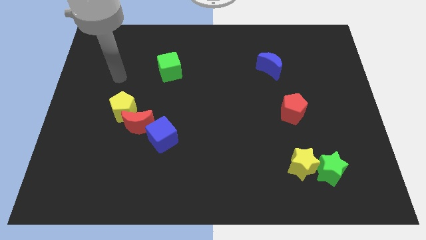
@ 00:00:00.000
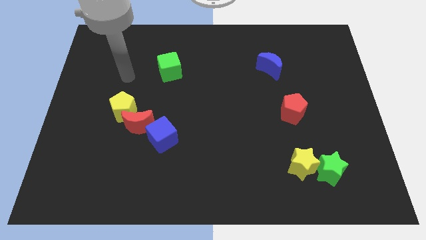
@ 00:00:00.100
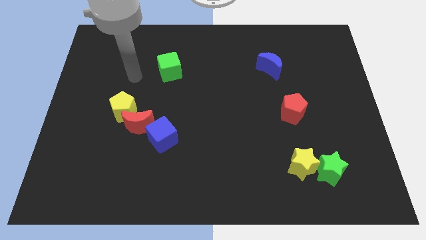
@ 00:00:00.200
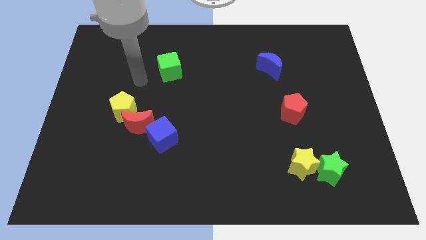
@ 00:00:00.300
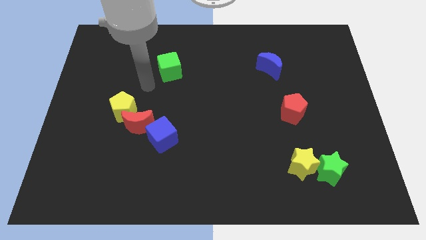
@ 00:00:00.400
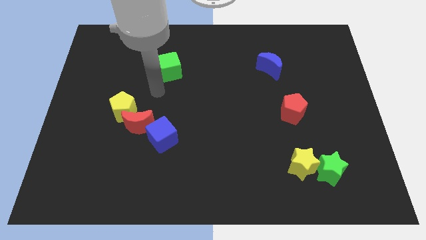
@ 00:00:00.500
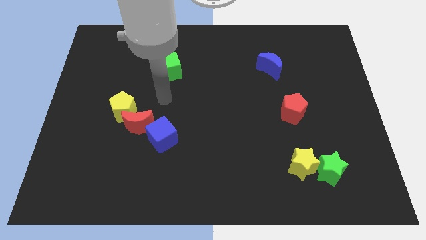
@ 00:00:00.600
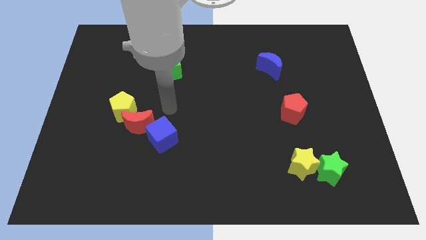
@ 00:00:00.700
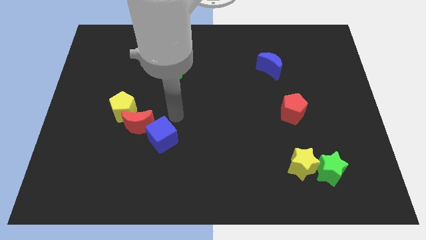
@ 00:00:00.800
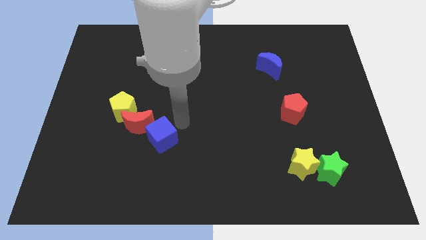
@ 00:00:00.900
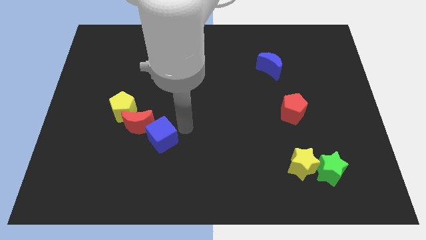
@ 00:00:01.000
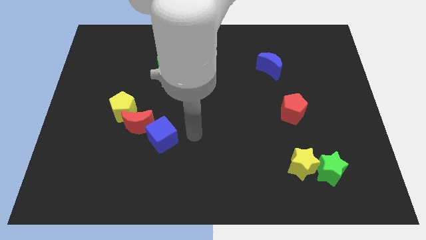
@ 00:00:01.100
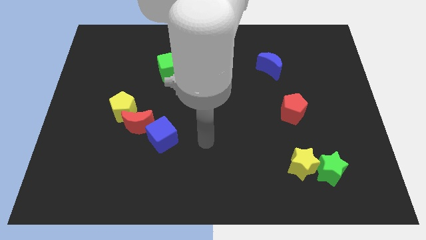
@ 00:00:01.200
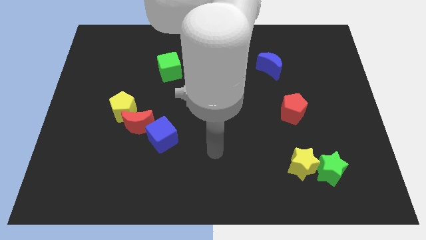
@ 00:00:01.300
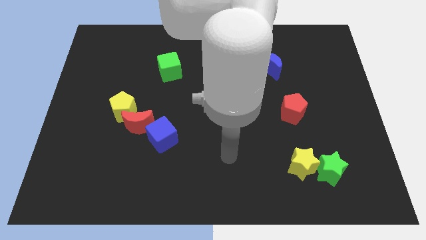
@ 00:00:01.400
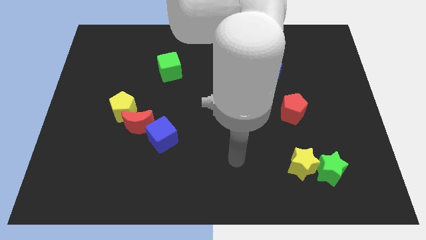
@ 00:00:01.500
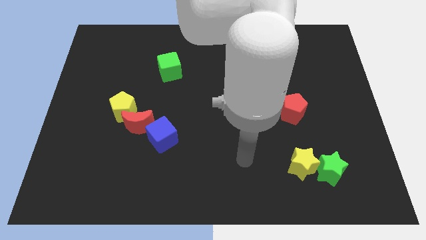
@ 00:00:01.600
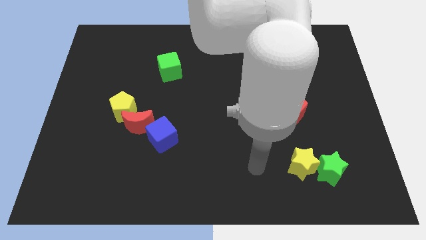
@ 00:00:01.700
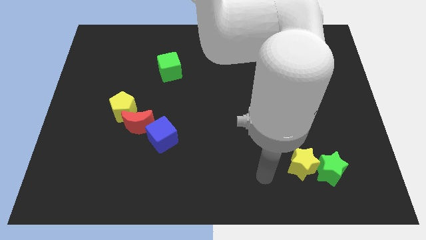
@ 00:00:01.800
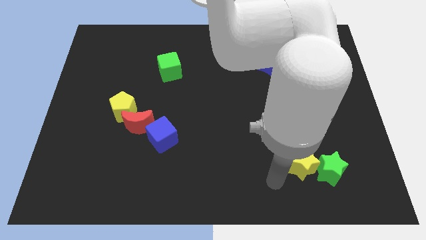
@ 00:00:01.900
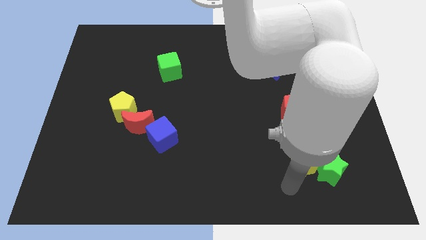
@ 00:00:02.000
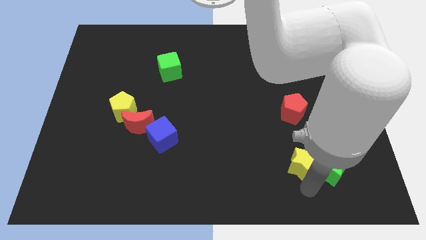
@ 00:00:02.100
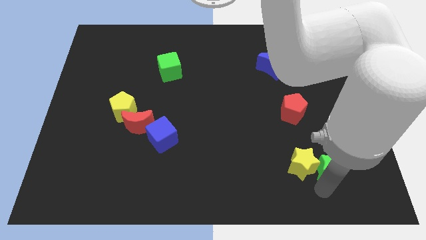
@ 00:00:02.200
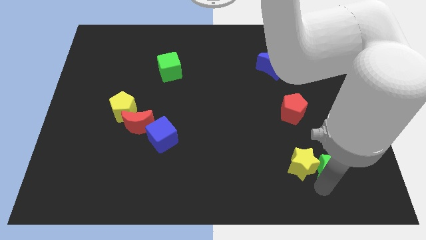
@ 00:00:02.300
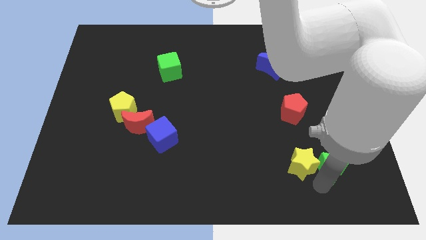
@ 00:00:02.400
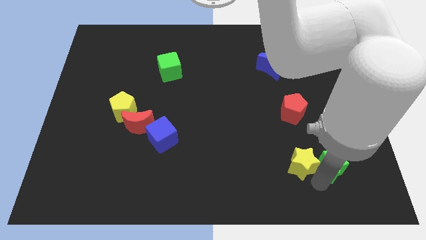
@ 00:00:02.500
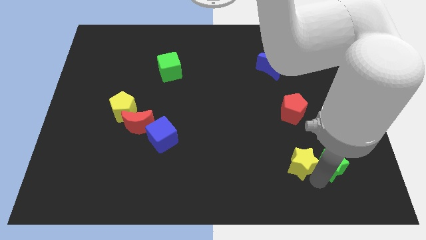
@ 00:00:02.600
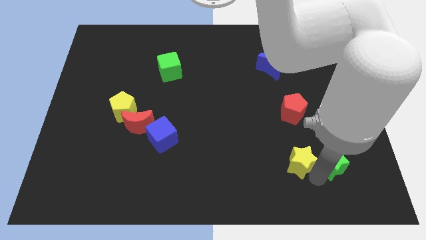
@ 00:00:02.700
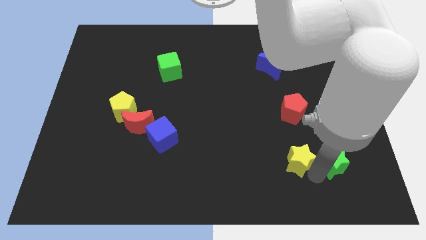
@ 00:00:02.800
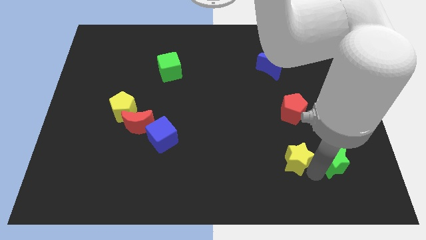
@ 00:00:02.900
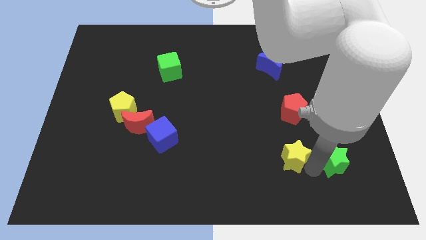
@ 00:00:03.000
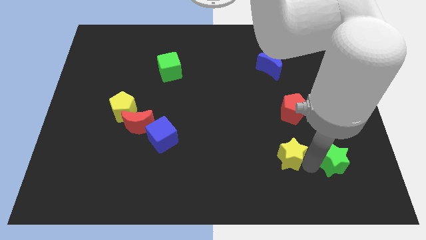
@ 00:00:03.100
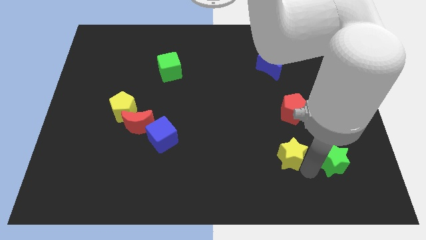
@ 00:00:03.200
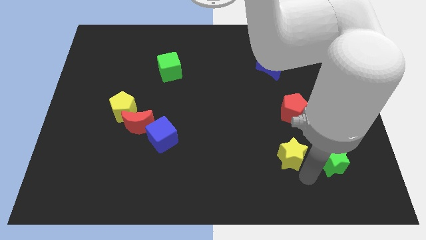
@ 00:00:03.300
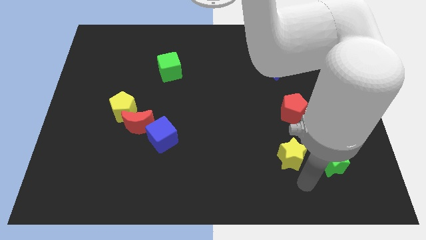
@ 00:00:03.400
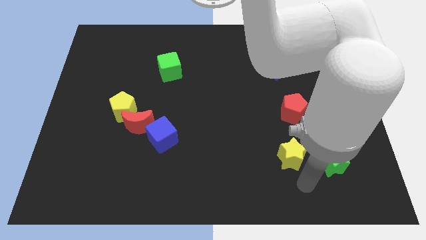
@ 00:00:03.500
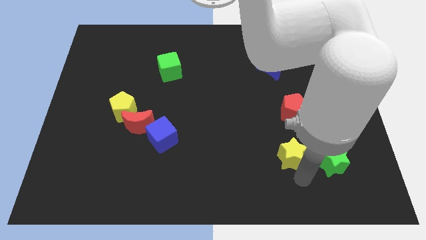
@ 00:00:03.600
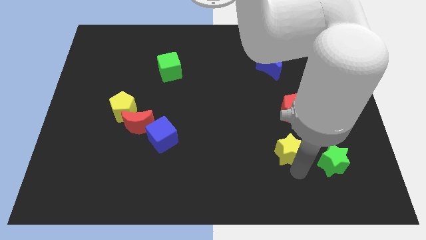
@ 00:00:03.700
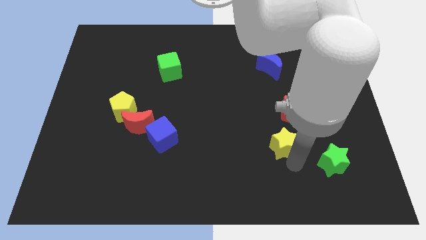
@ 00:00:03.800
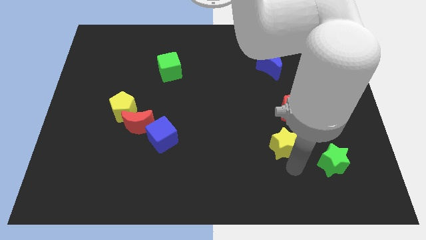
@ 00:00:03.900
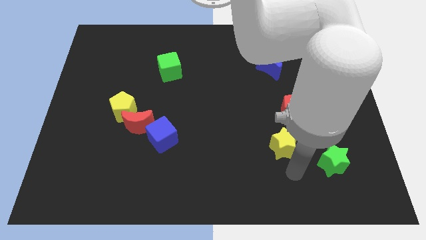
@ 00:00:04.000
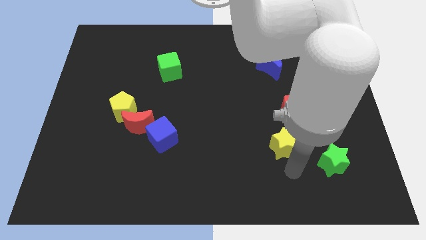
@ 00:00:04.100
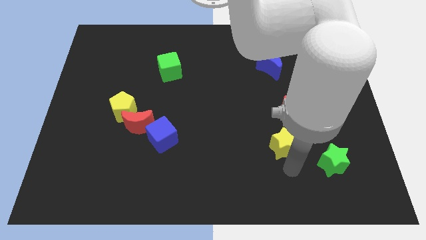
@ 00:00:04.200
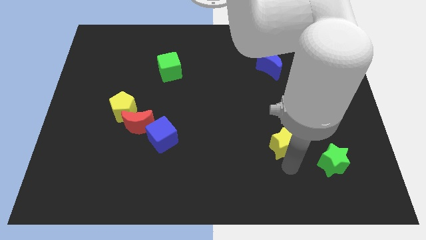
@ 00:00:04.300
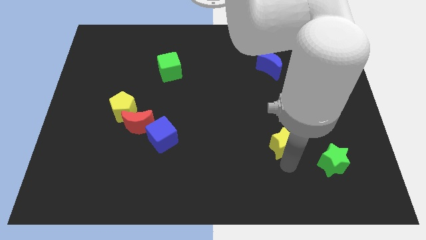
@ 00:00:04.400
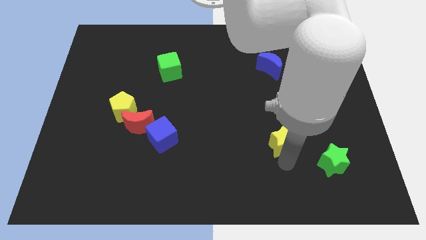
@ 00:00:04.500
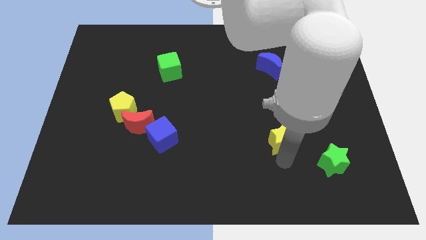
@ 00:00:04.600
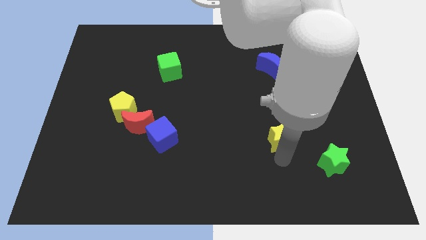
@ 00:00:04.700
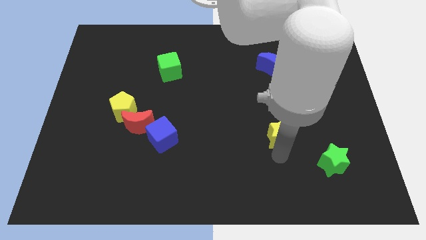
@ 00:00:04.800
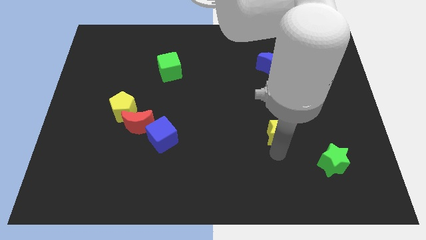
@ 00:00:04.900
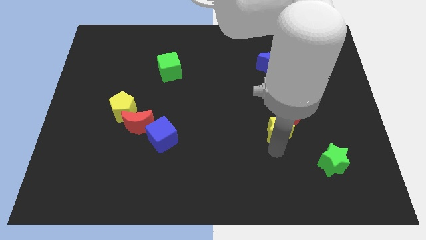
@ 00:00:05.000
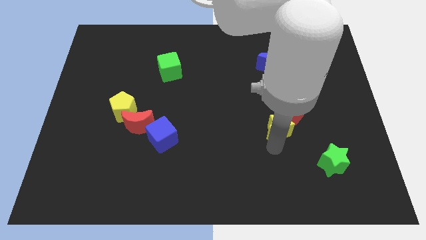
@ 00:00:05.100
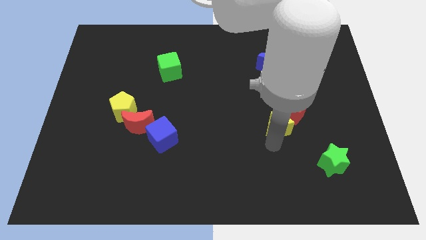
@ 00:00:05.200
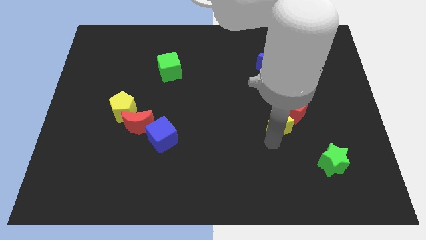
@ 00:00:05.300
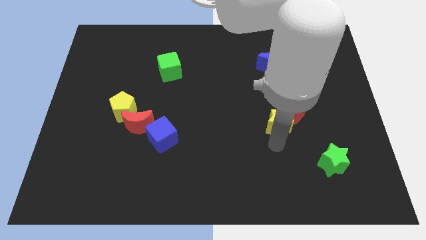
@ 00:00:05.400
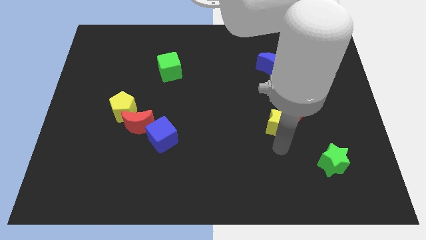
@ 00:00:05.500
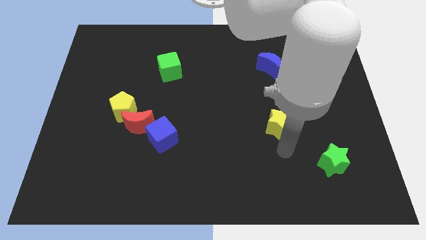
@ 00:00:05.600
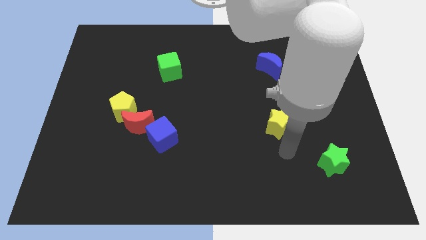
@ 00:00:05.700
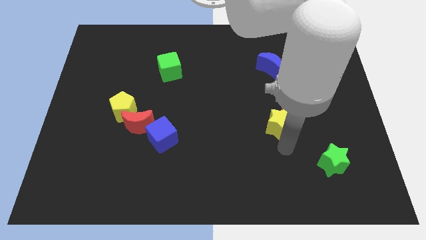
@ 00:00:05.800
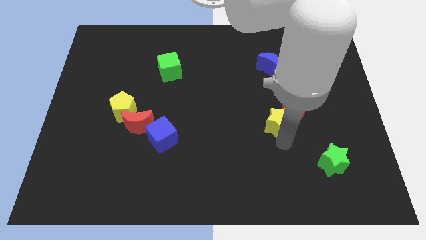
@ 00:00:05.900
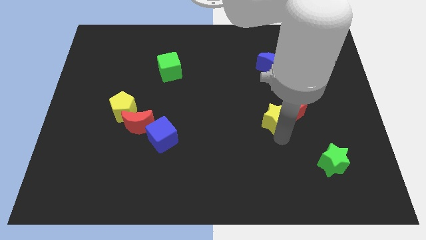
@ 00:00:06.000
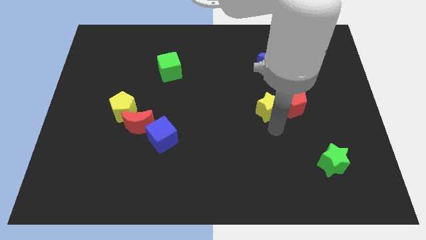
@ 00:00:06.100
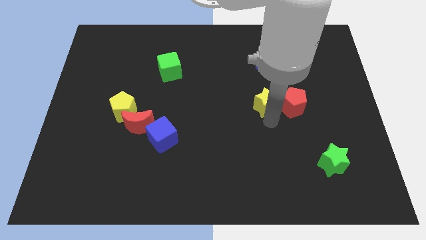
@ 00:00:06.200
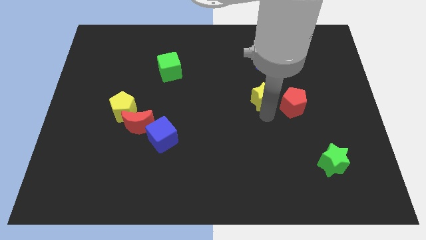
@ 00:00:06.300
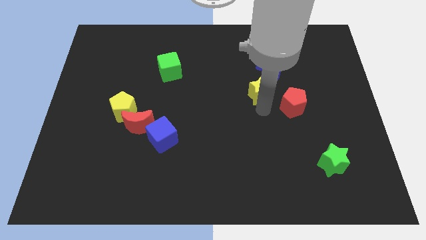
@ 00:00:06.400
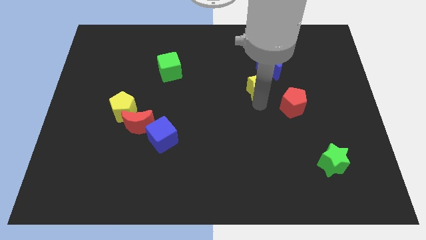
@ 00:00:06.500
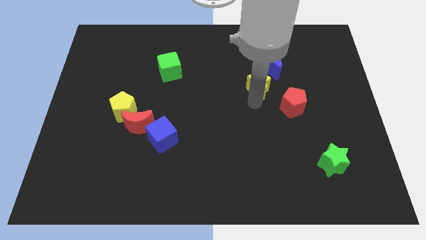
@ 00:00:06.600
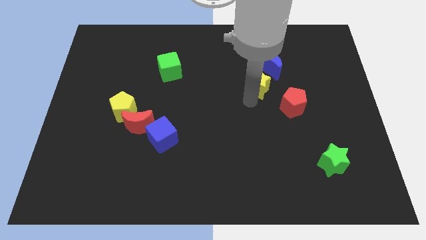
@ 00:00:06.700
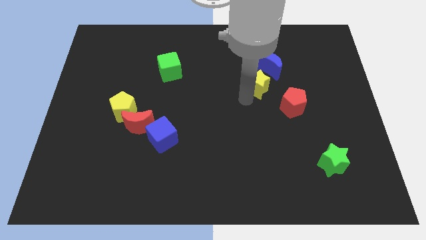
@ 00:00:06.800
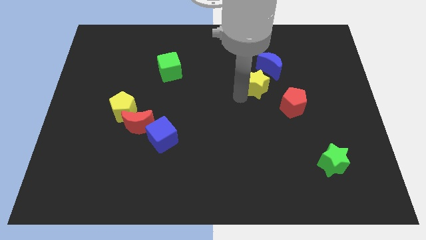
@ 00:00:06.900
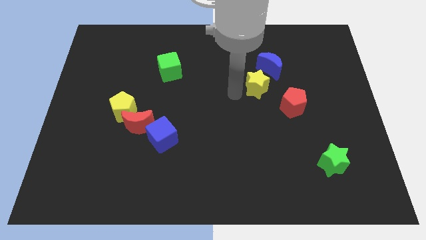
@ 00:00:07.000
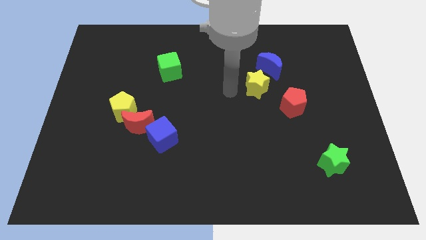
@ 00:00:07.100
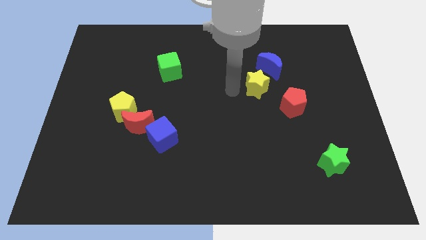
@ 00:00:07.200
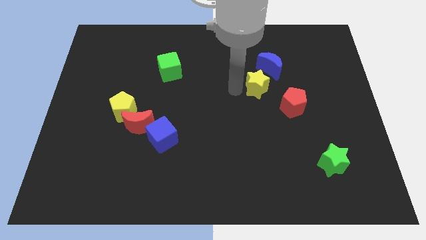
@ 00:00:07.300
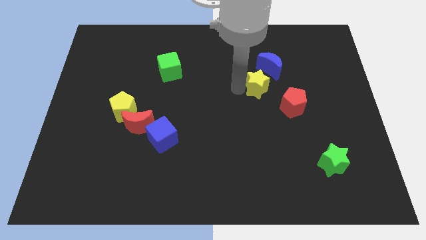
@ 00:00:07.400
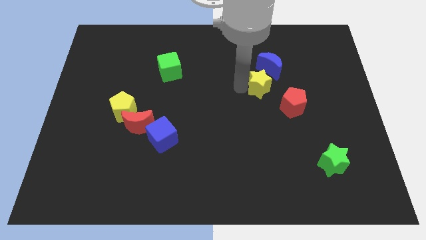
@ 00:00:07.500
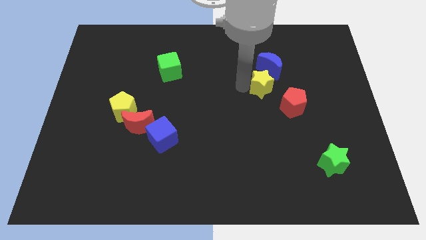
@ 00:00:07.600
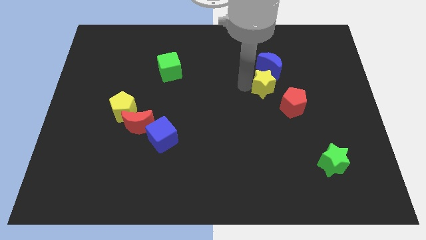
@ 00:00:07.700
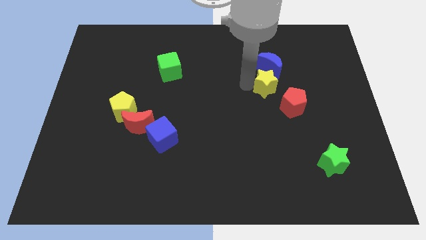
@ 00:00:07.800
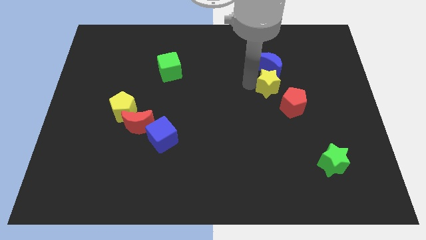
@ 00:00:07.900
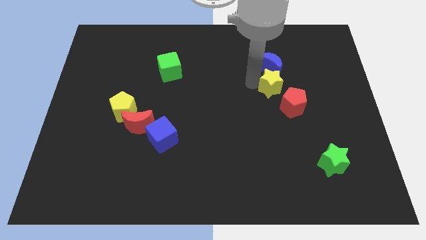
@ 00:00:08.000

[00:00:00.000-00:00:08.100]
push the yellow star next to the blue moon
